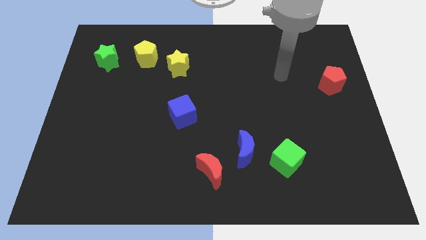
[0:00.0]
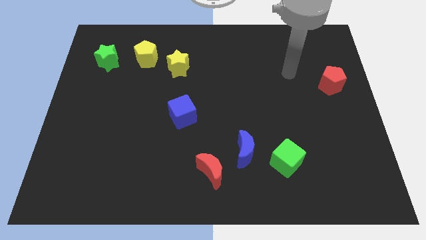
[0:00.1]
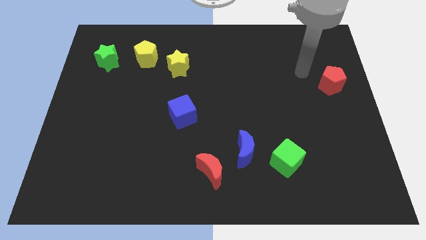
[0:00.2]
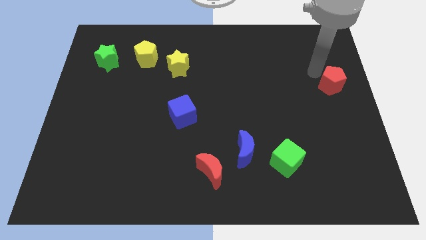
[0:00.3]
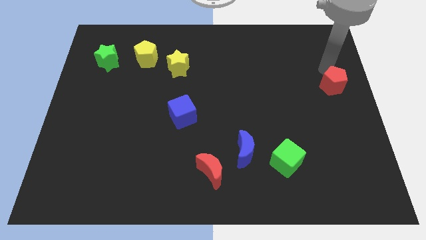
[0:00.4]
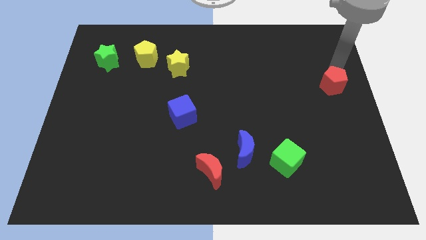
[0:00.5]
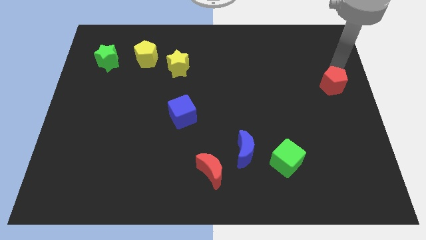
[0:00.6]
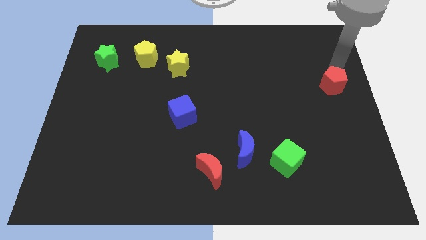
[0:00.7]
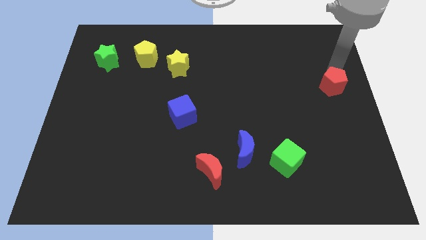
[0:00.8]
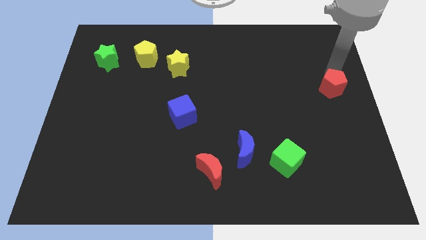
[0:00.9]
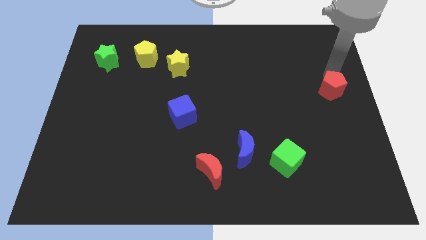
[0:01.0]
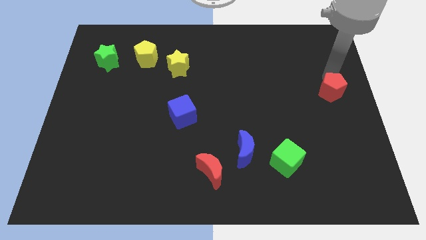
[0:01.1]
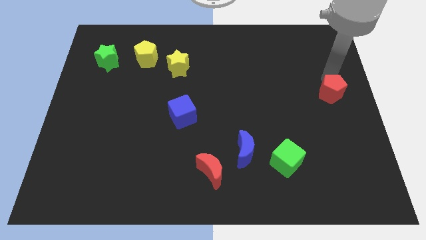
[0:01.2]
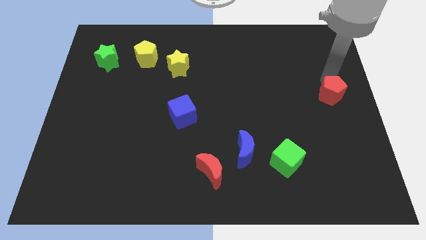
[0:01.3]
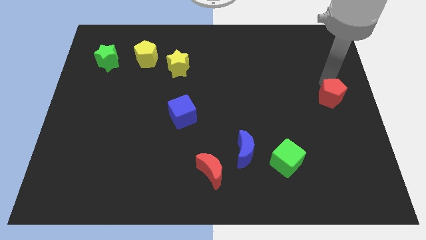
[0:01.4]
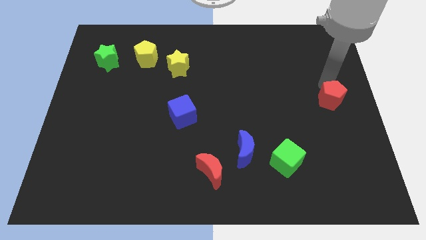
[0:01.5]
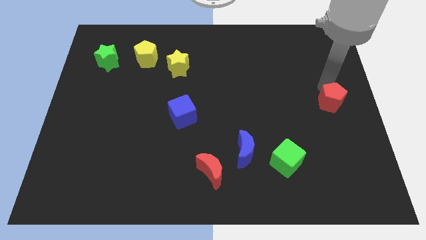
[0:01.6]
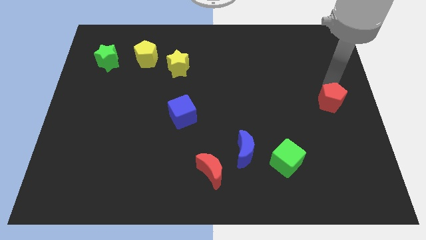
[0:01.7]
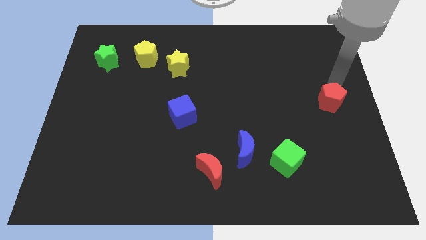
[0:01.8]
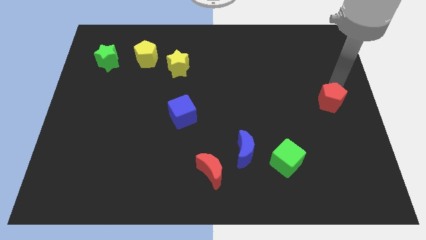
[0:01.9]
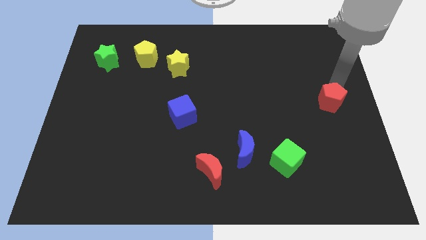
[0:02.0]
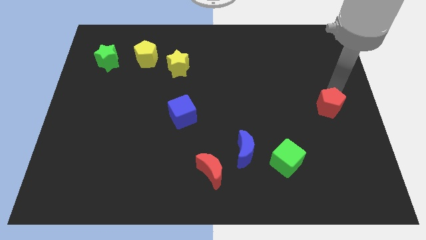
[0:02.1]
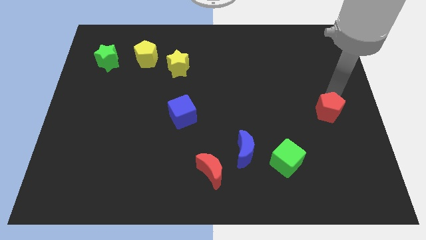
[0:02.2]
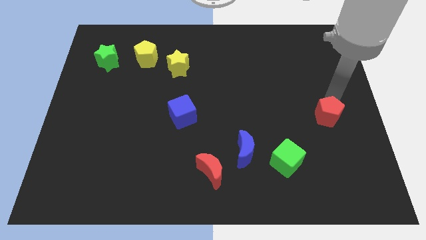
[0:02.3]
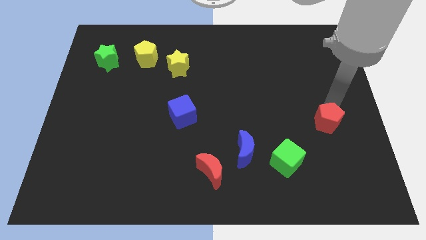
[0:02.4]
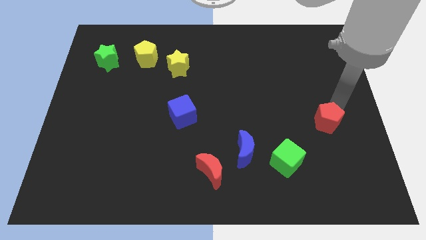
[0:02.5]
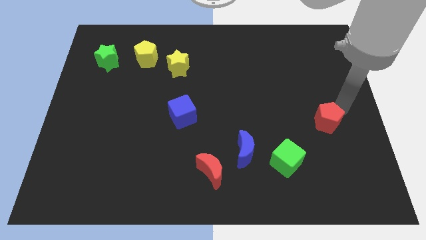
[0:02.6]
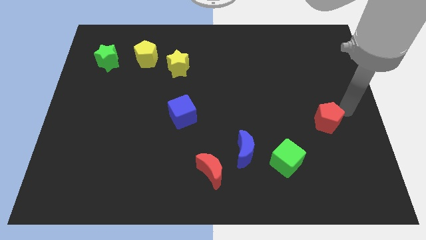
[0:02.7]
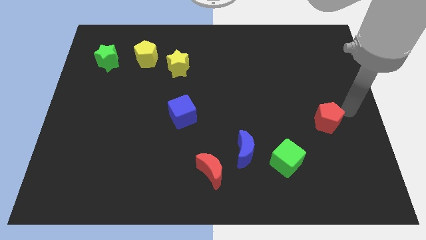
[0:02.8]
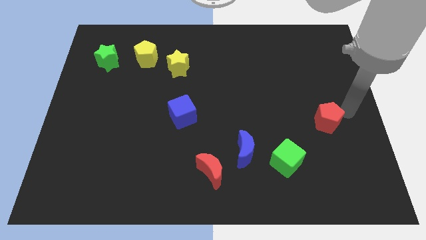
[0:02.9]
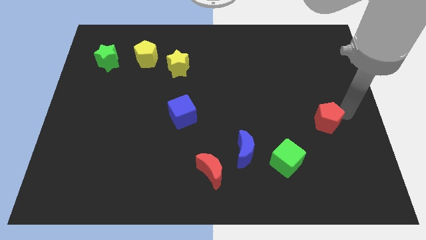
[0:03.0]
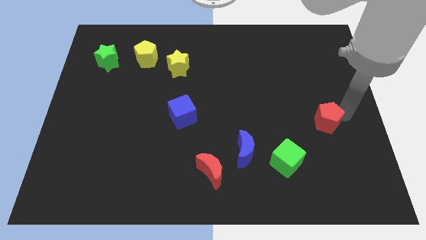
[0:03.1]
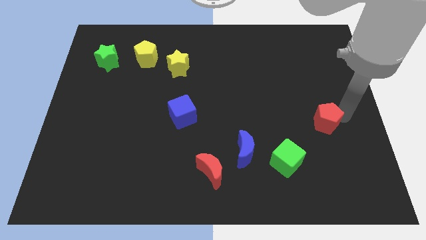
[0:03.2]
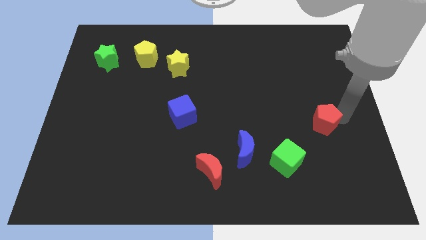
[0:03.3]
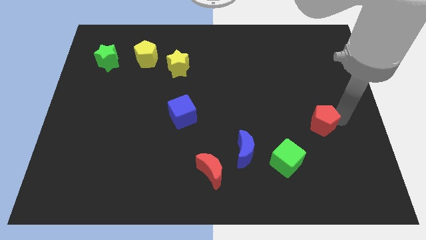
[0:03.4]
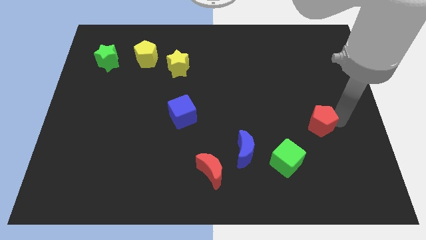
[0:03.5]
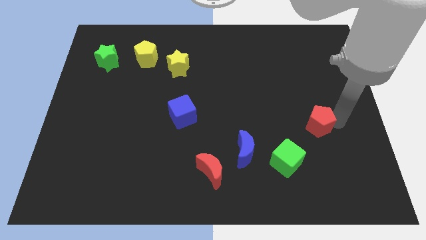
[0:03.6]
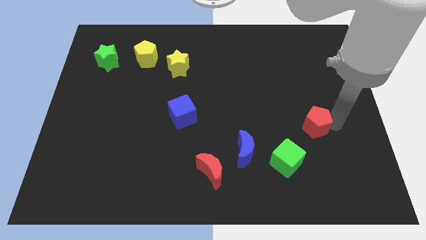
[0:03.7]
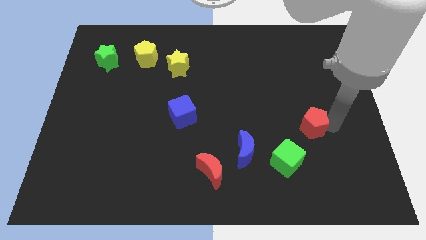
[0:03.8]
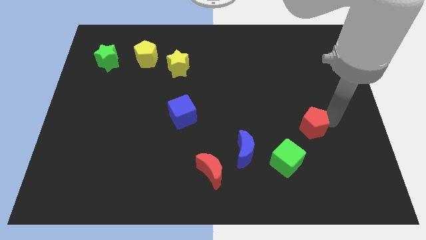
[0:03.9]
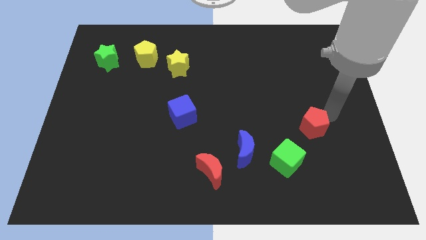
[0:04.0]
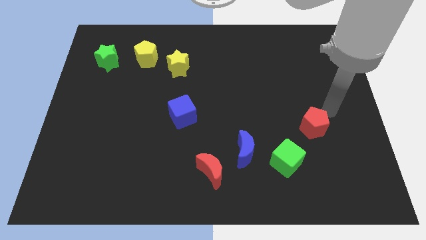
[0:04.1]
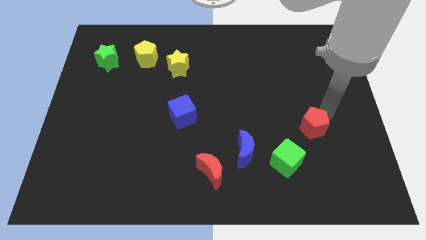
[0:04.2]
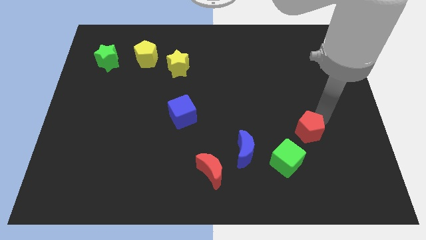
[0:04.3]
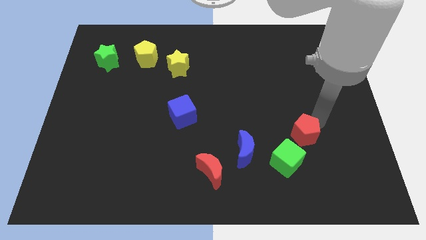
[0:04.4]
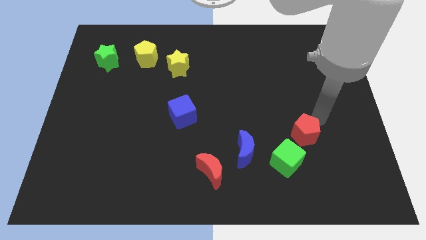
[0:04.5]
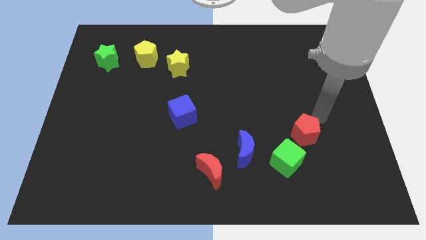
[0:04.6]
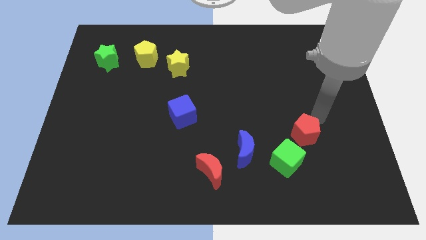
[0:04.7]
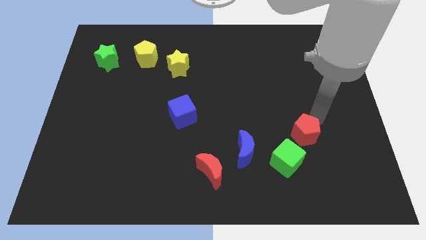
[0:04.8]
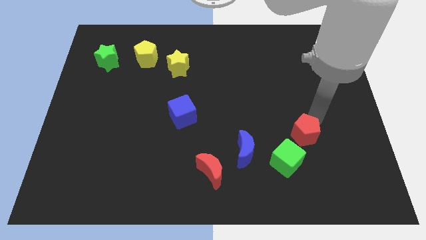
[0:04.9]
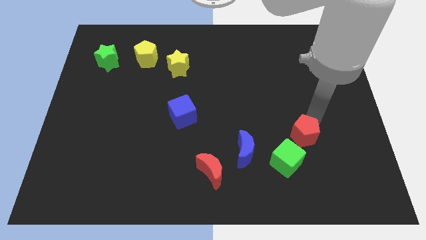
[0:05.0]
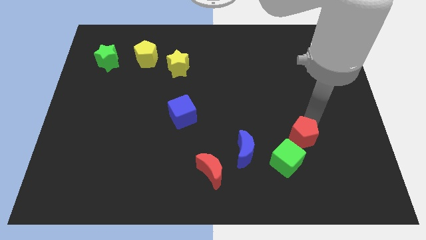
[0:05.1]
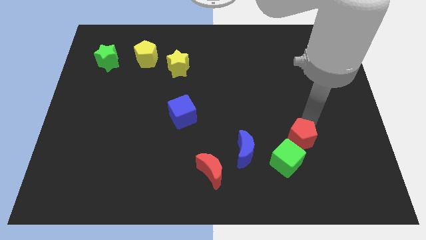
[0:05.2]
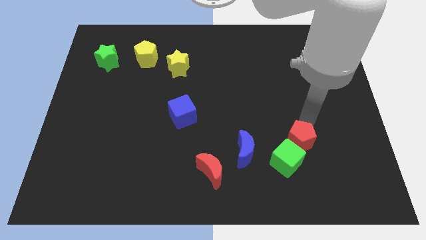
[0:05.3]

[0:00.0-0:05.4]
move the red pentagon towards the green cube

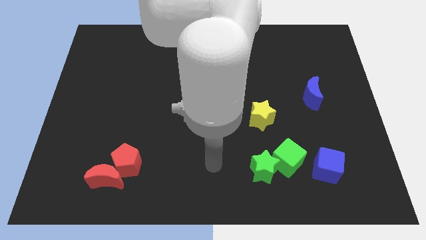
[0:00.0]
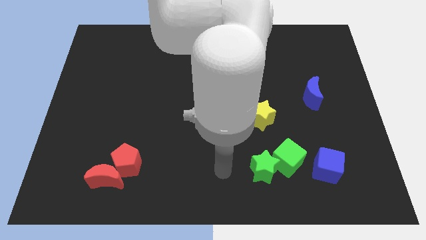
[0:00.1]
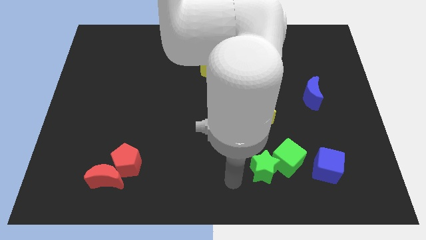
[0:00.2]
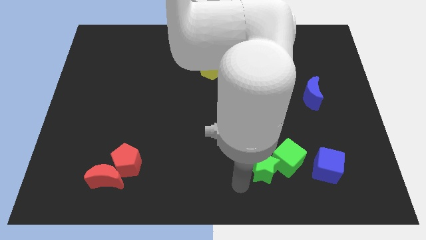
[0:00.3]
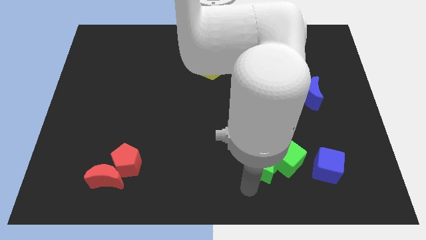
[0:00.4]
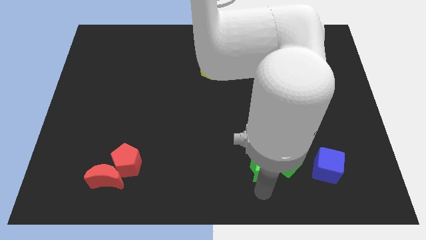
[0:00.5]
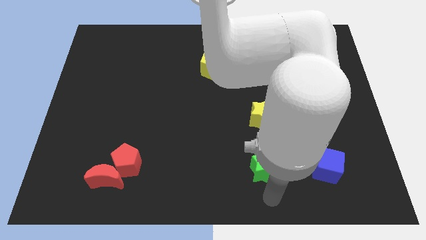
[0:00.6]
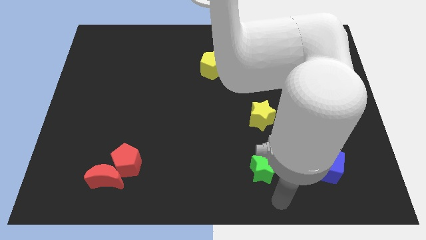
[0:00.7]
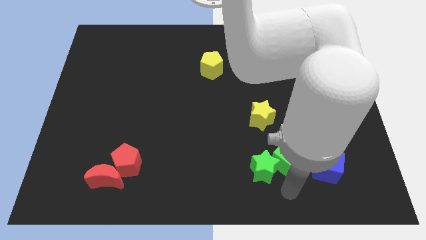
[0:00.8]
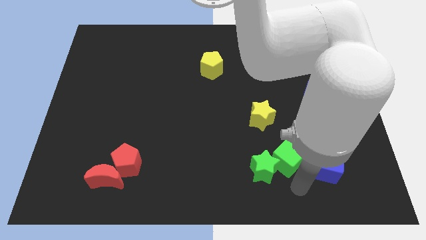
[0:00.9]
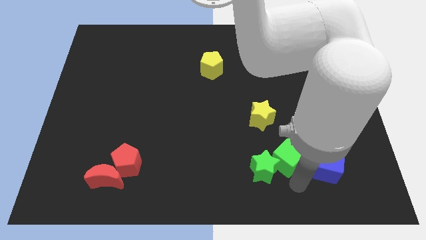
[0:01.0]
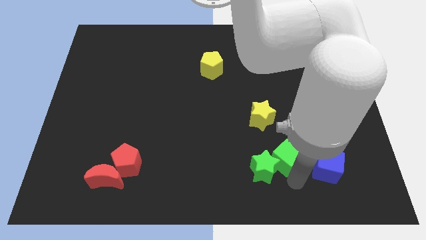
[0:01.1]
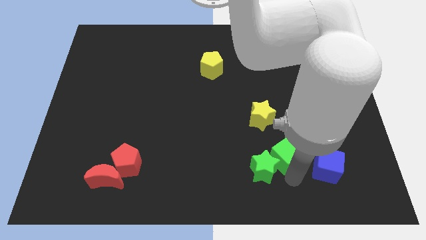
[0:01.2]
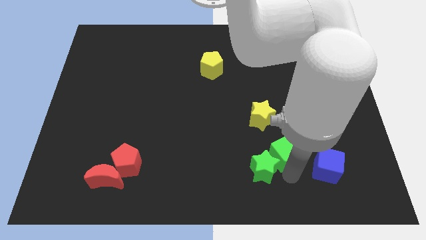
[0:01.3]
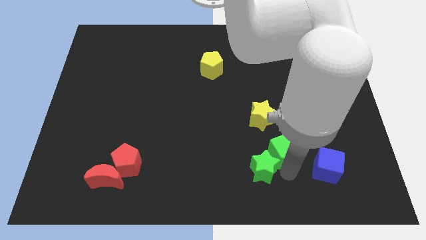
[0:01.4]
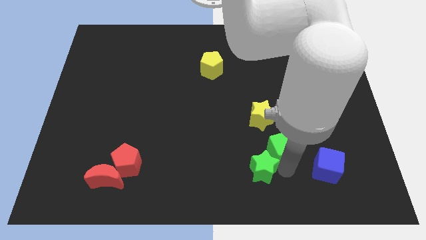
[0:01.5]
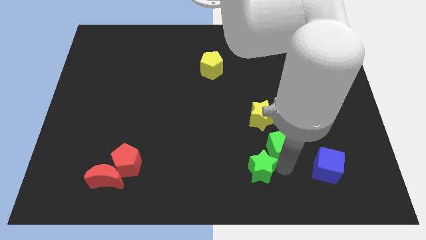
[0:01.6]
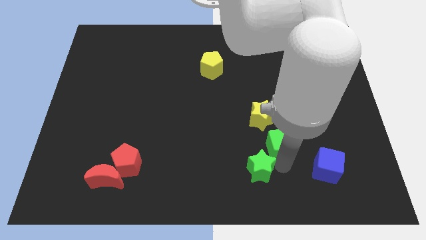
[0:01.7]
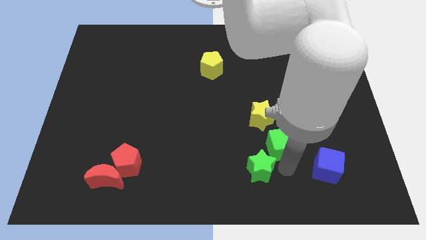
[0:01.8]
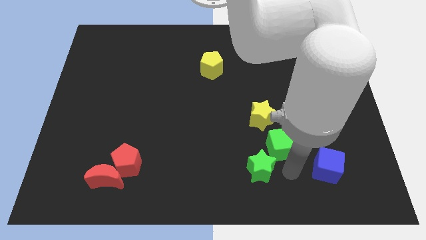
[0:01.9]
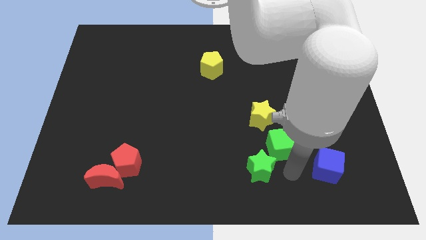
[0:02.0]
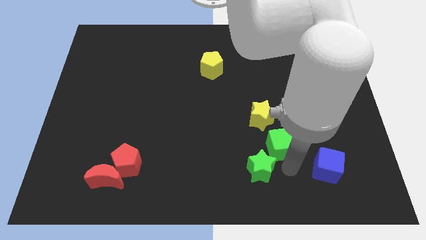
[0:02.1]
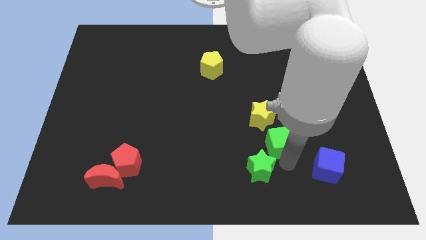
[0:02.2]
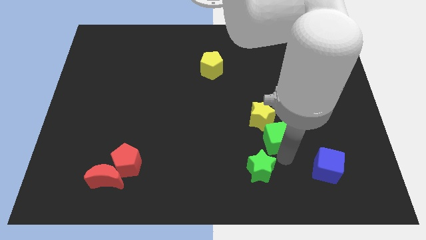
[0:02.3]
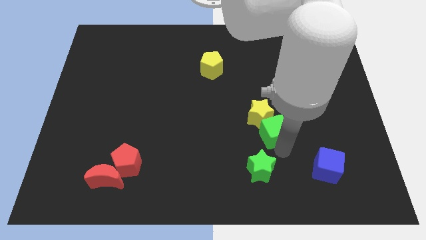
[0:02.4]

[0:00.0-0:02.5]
move the green cube towards the yellow star
